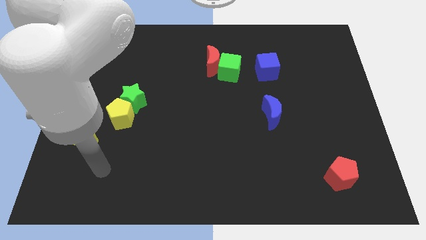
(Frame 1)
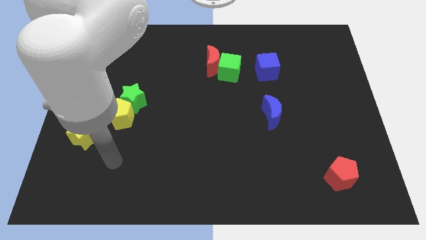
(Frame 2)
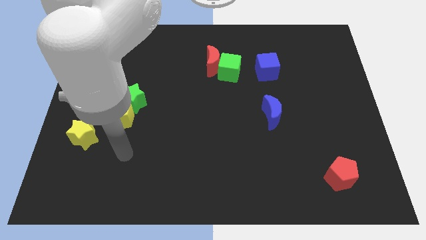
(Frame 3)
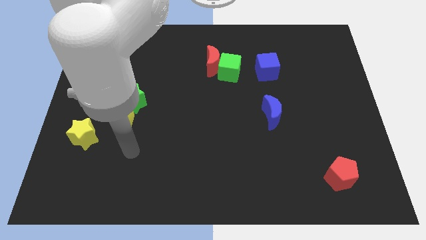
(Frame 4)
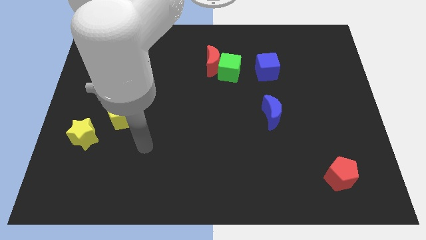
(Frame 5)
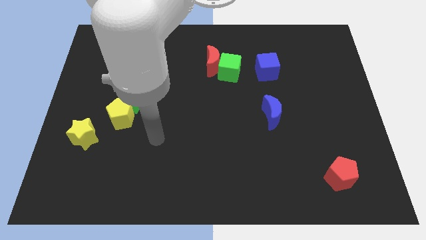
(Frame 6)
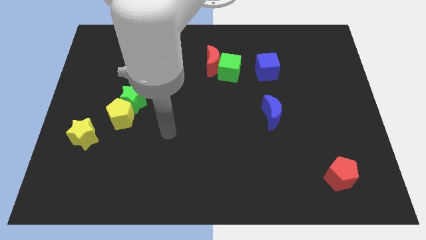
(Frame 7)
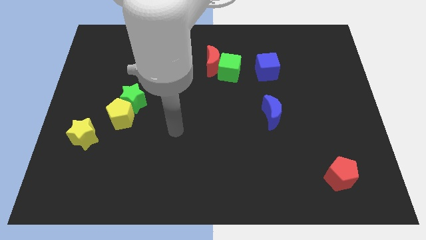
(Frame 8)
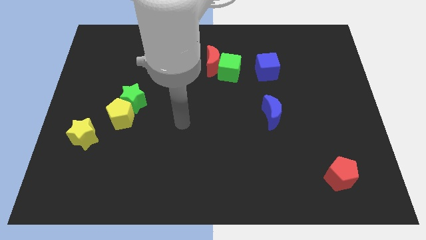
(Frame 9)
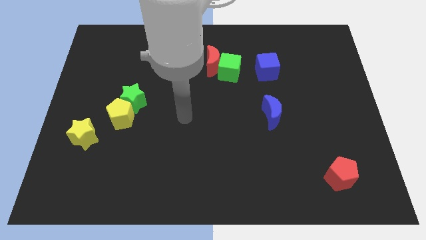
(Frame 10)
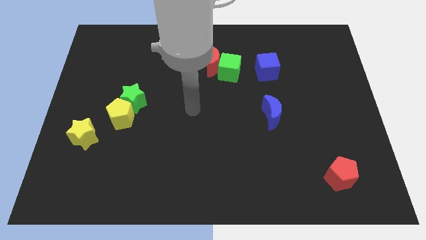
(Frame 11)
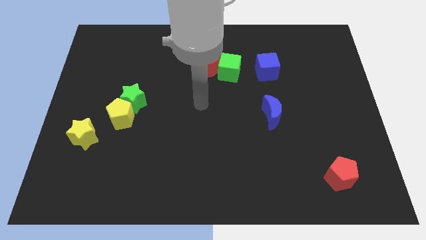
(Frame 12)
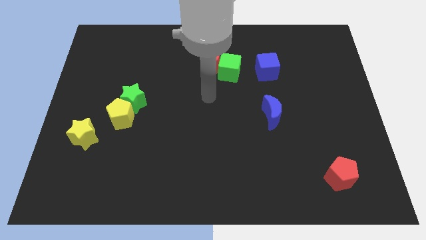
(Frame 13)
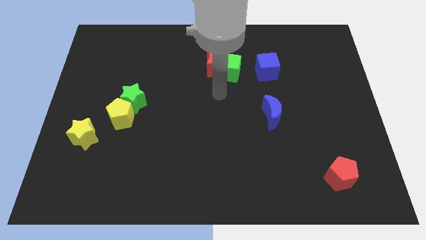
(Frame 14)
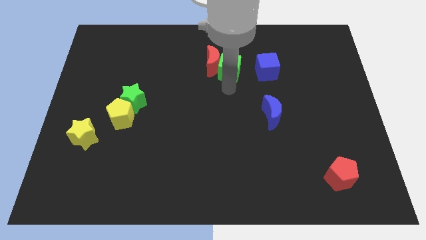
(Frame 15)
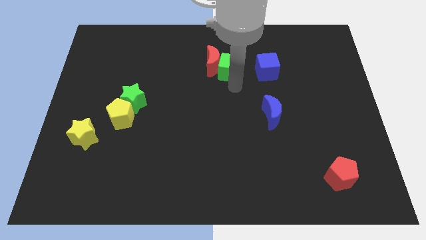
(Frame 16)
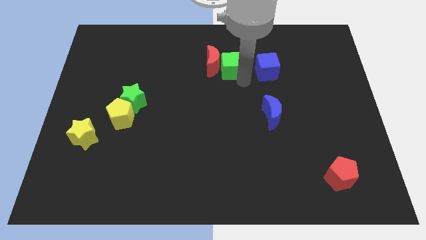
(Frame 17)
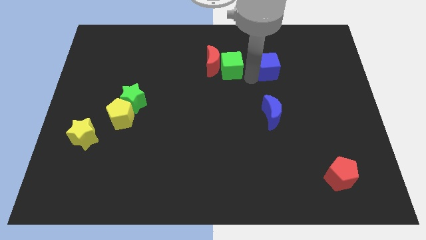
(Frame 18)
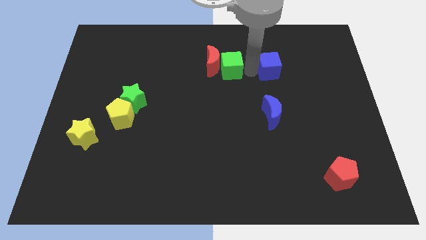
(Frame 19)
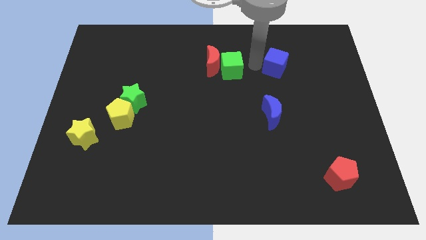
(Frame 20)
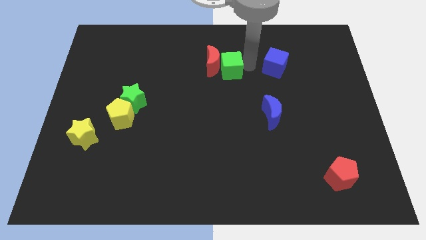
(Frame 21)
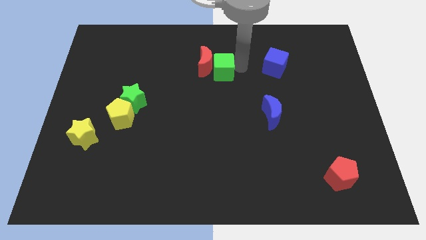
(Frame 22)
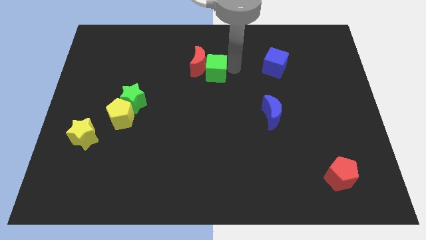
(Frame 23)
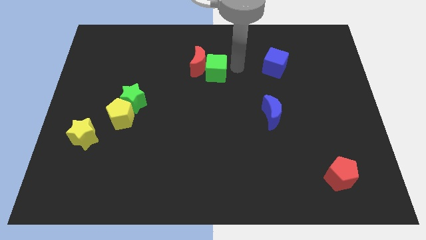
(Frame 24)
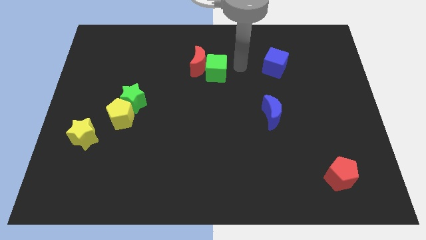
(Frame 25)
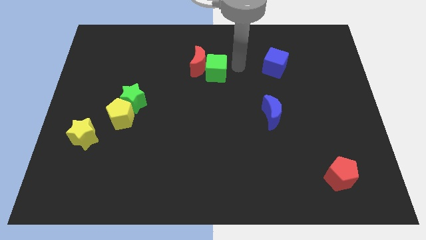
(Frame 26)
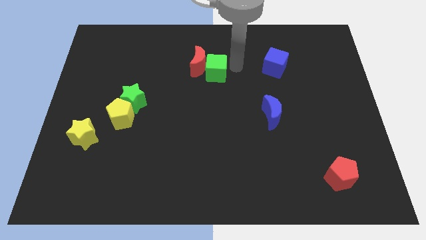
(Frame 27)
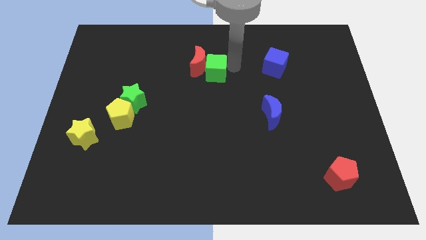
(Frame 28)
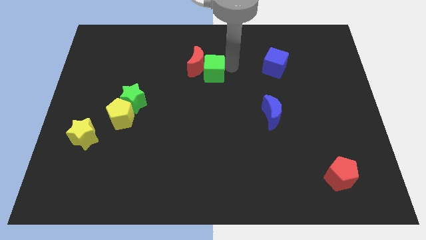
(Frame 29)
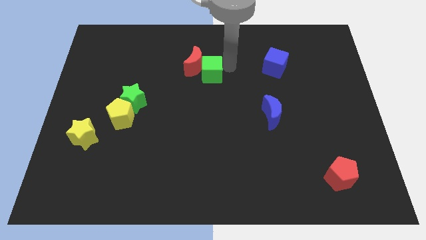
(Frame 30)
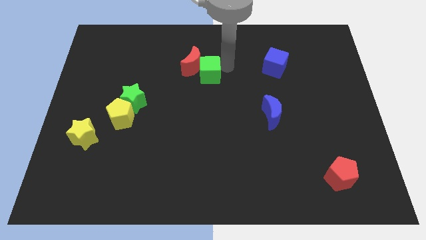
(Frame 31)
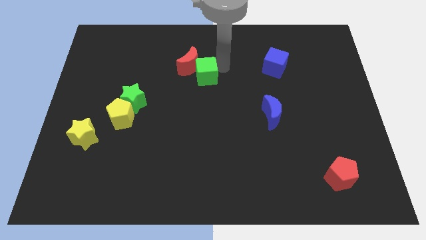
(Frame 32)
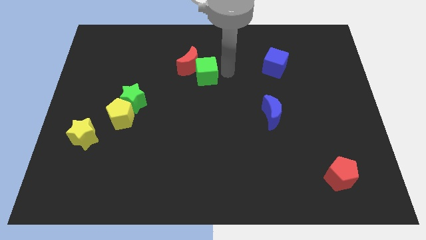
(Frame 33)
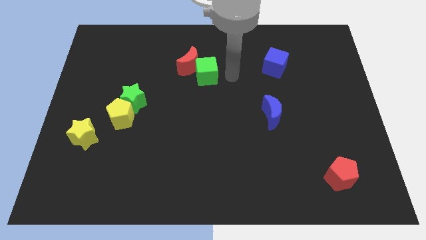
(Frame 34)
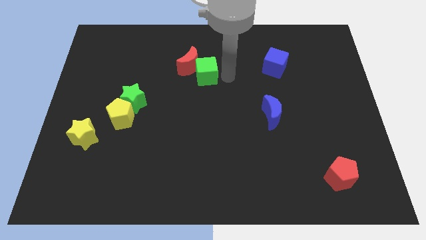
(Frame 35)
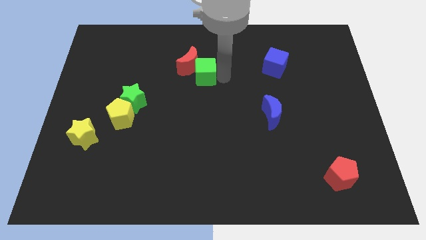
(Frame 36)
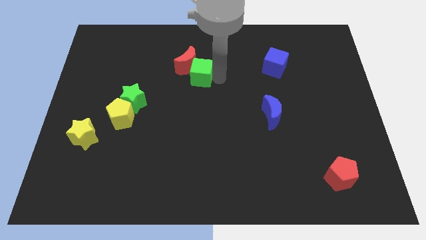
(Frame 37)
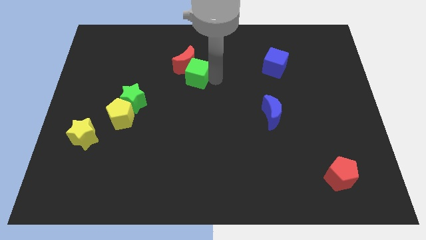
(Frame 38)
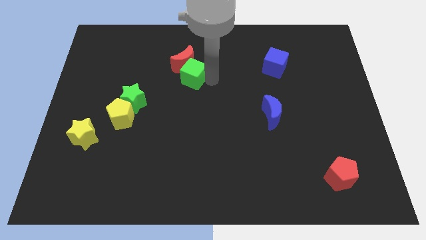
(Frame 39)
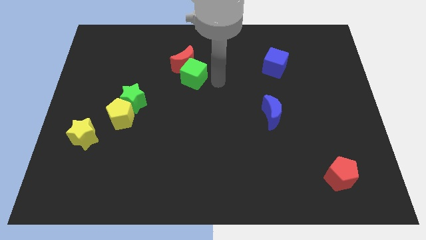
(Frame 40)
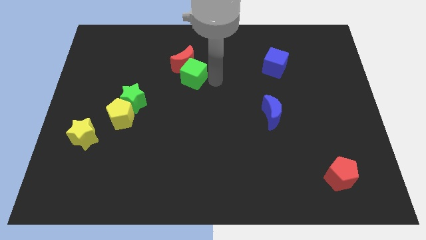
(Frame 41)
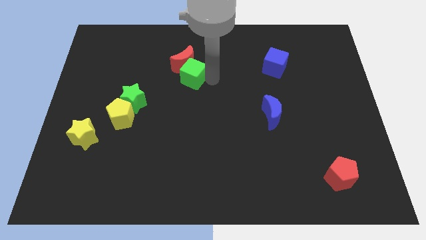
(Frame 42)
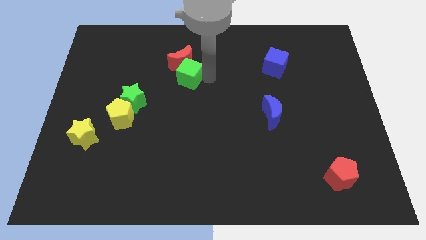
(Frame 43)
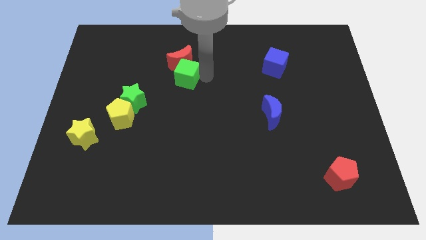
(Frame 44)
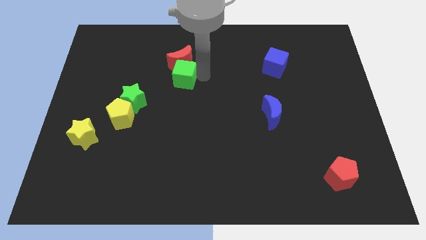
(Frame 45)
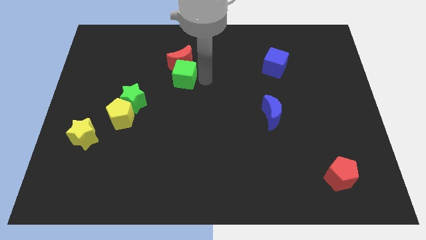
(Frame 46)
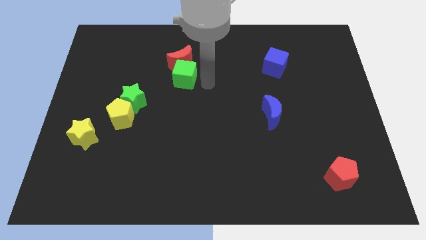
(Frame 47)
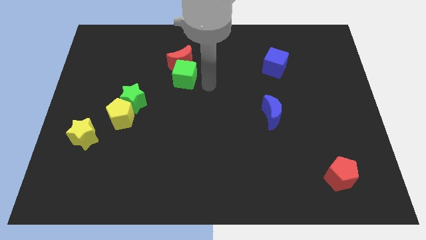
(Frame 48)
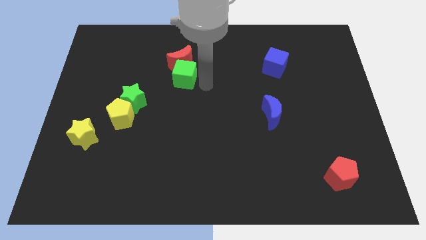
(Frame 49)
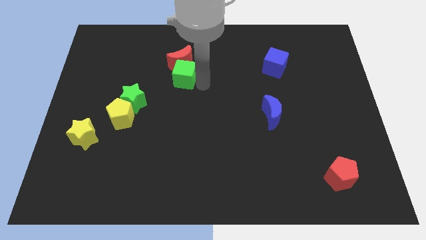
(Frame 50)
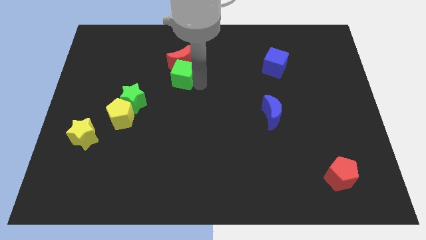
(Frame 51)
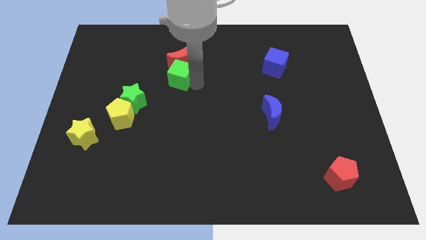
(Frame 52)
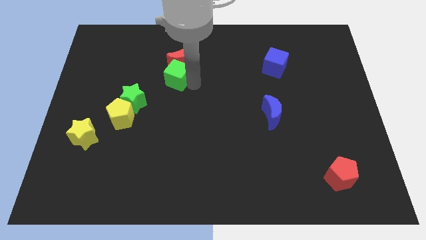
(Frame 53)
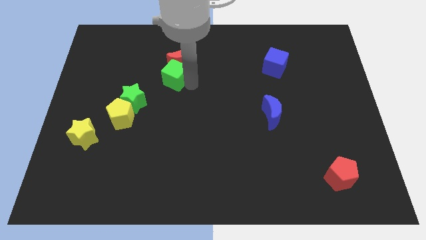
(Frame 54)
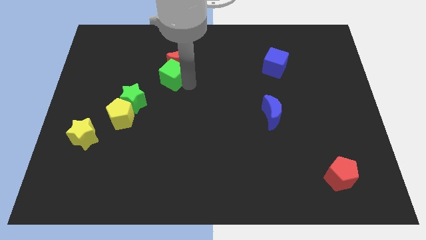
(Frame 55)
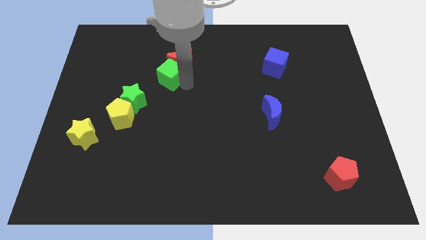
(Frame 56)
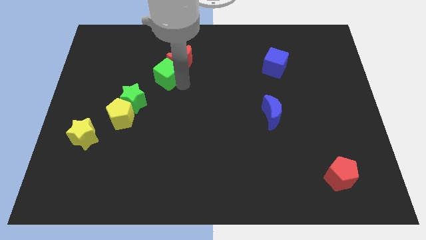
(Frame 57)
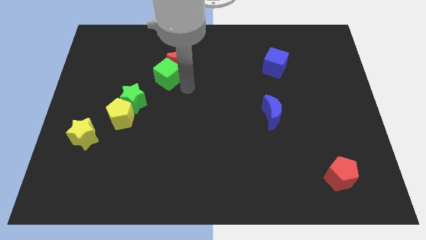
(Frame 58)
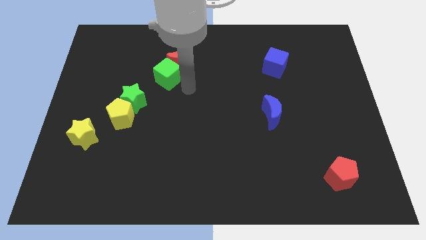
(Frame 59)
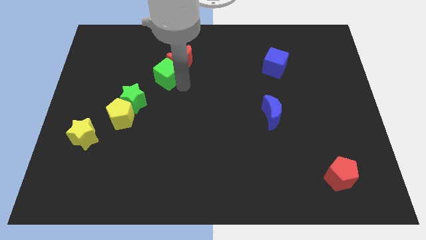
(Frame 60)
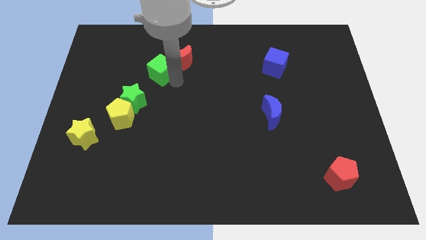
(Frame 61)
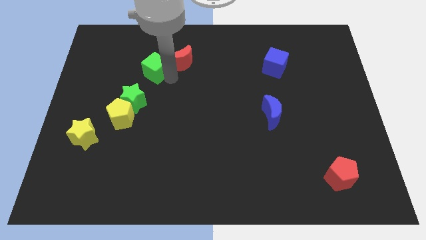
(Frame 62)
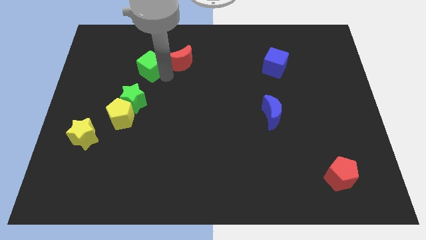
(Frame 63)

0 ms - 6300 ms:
push the green cube to the left

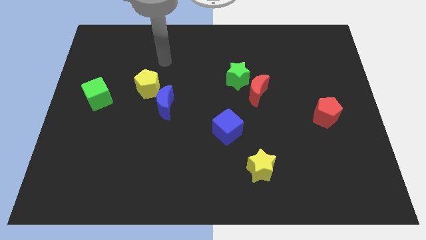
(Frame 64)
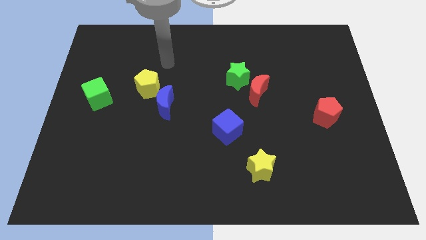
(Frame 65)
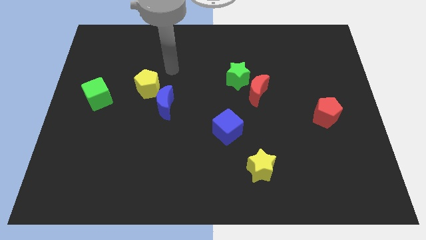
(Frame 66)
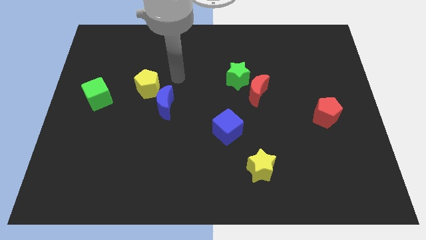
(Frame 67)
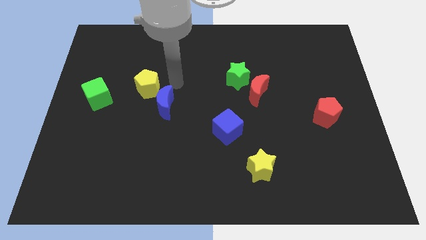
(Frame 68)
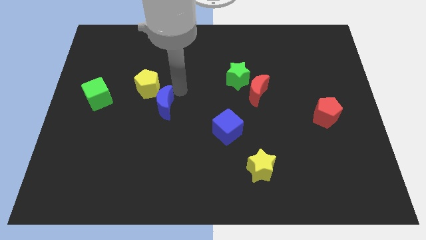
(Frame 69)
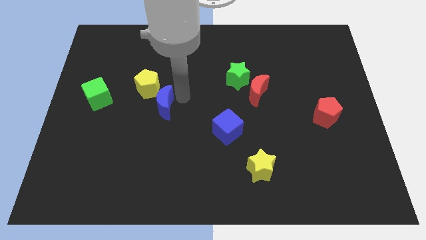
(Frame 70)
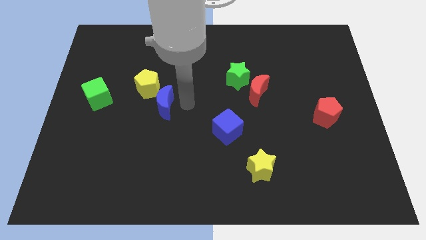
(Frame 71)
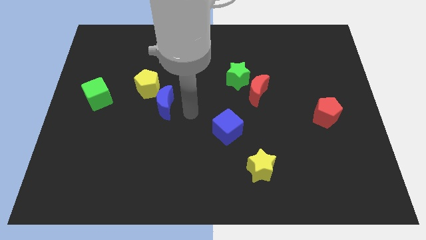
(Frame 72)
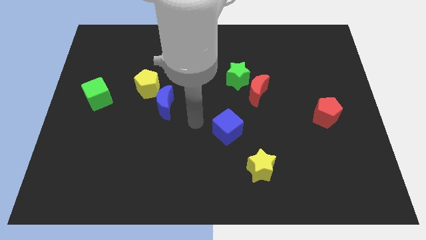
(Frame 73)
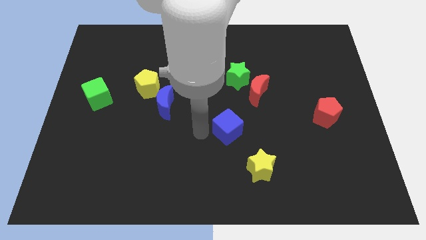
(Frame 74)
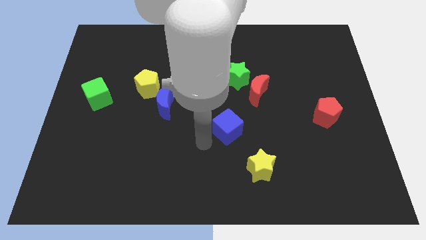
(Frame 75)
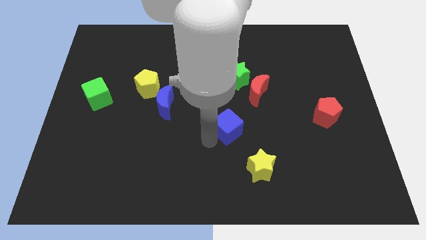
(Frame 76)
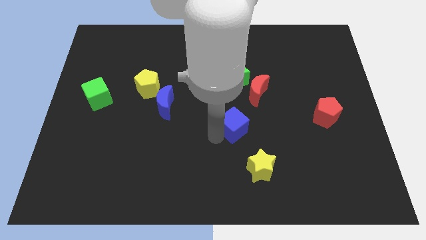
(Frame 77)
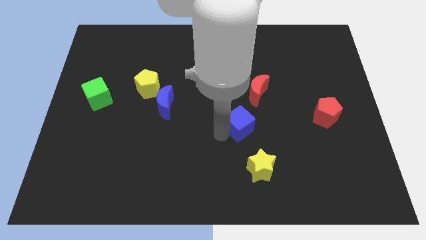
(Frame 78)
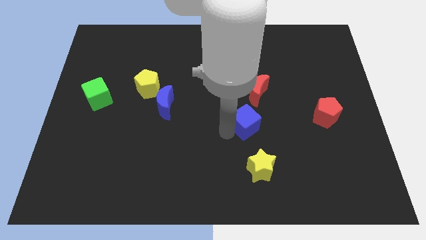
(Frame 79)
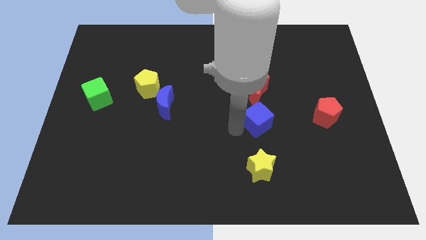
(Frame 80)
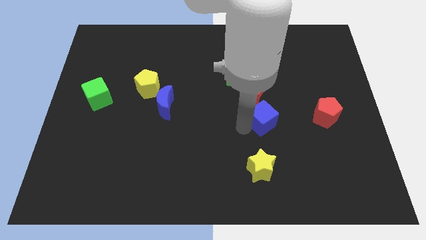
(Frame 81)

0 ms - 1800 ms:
move the blue cube a little upwards and right diagonally

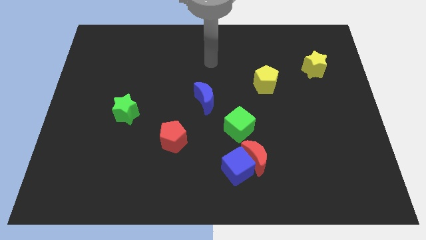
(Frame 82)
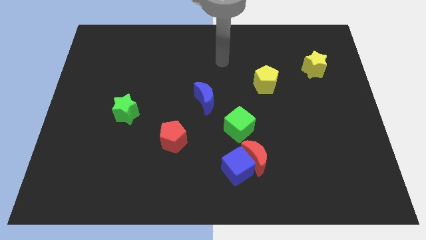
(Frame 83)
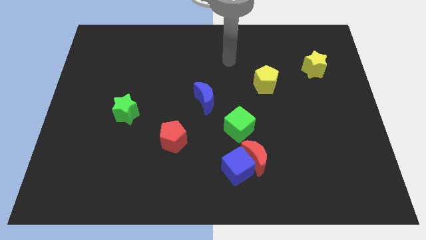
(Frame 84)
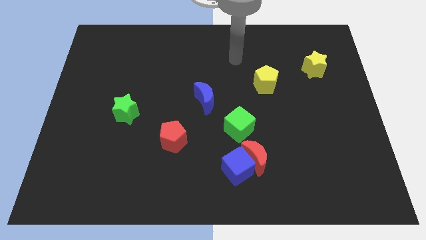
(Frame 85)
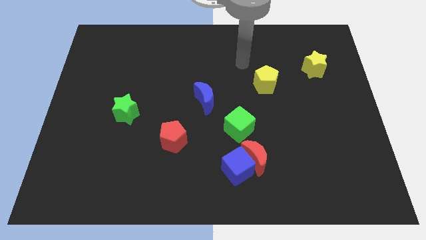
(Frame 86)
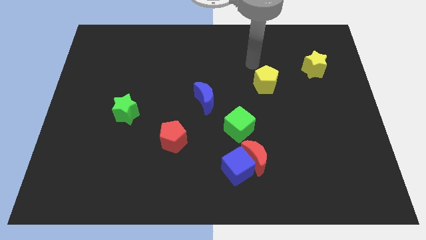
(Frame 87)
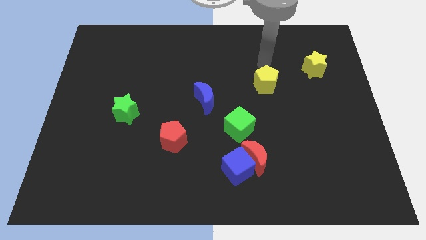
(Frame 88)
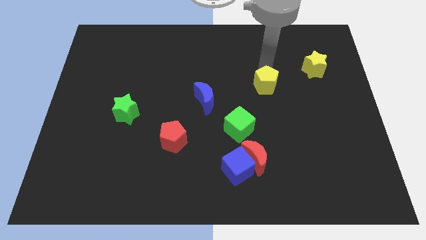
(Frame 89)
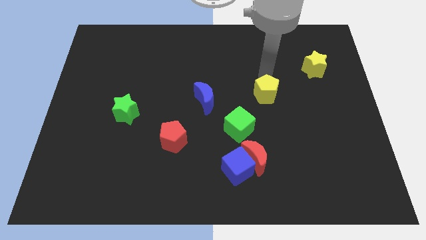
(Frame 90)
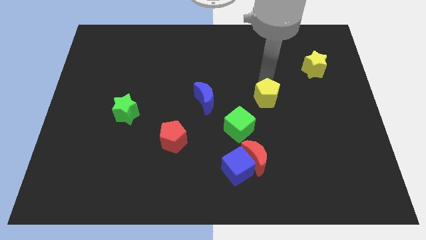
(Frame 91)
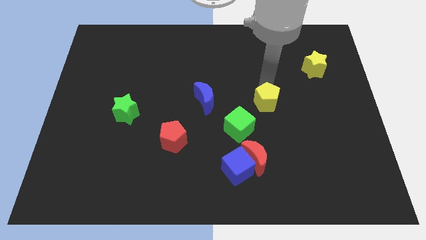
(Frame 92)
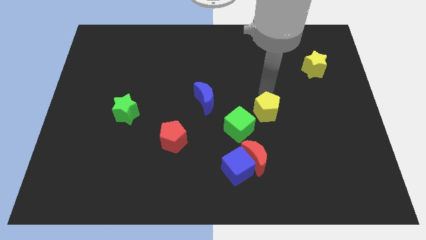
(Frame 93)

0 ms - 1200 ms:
slightly slide the yellow pentagon downwards
